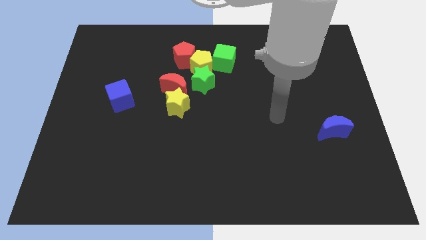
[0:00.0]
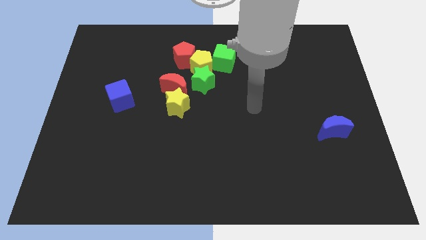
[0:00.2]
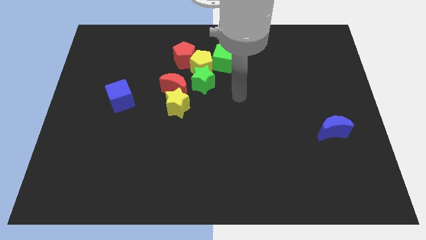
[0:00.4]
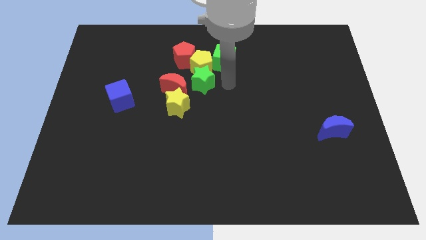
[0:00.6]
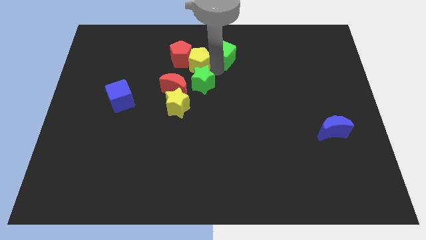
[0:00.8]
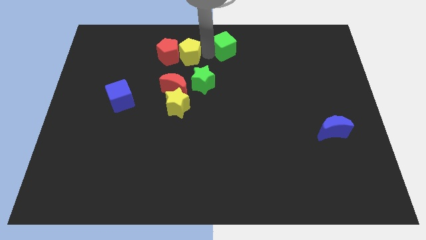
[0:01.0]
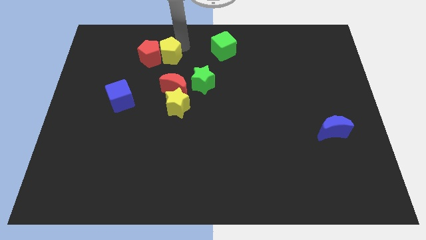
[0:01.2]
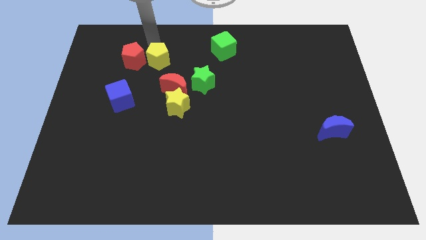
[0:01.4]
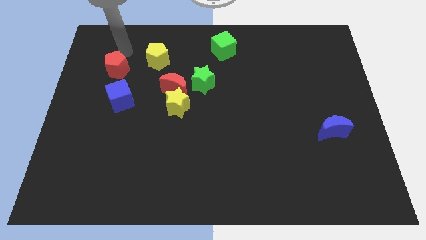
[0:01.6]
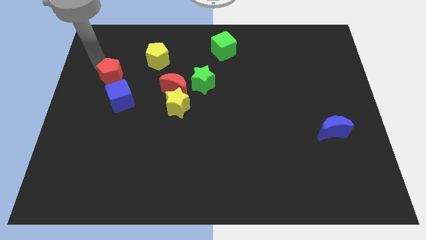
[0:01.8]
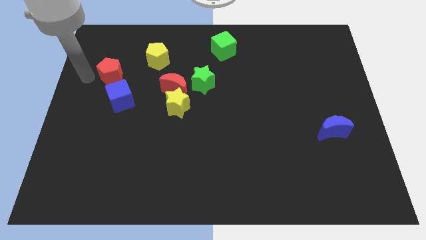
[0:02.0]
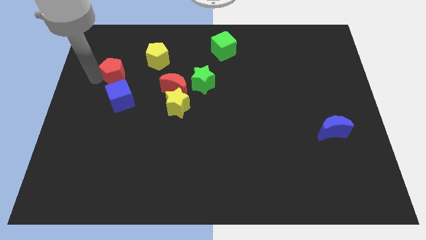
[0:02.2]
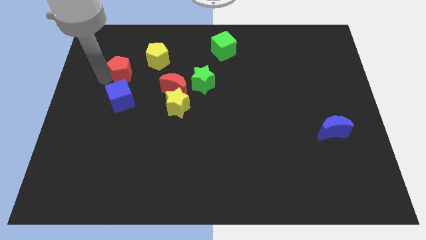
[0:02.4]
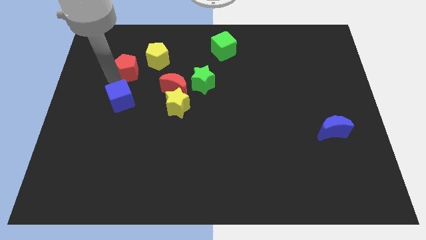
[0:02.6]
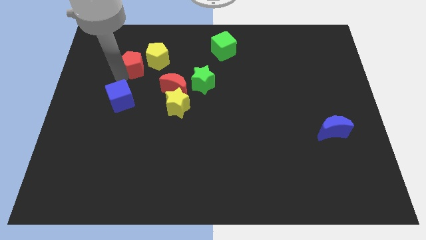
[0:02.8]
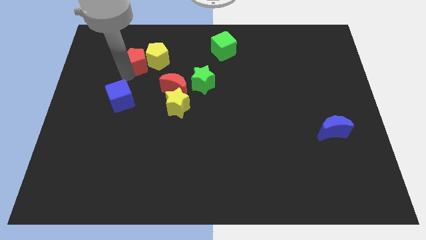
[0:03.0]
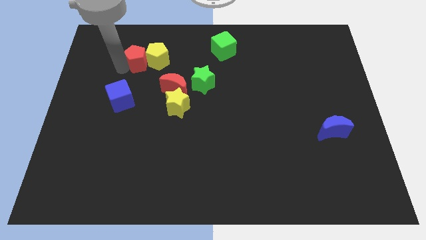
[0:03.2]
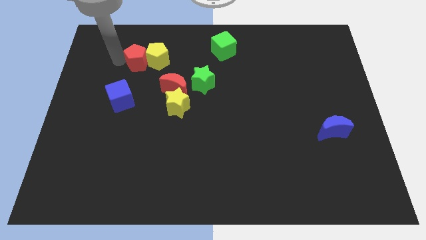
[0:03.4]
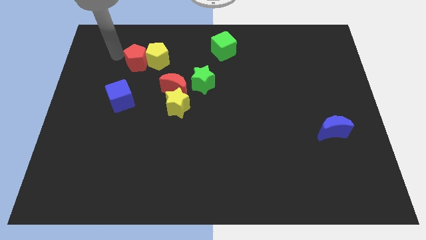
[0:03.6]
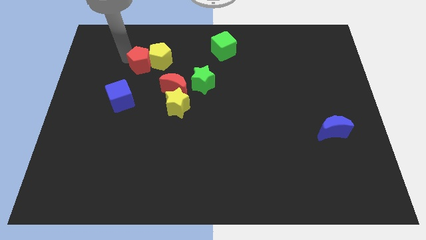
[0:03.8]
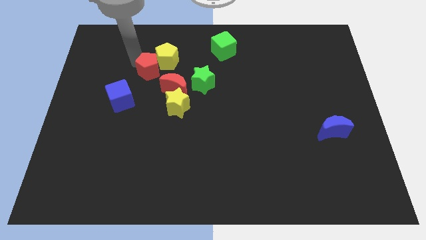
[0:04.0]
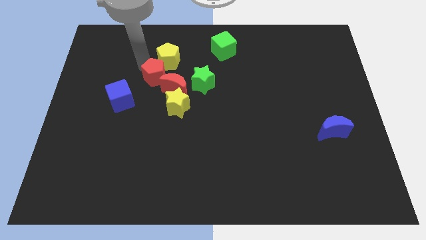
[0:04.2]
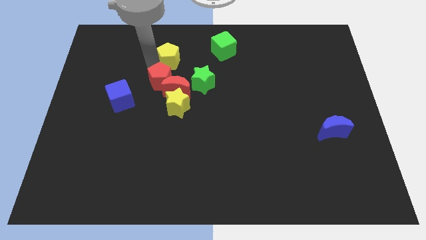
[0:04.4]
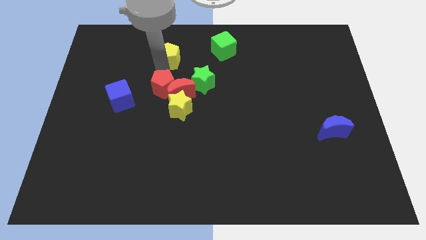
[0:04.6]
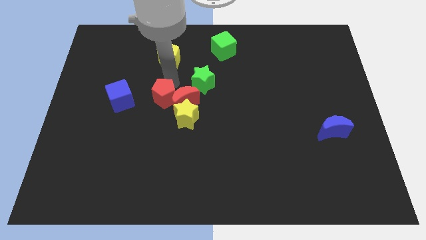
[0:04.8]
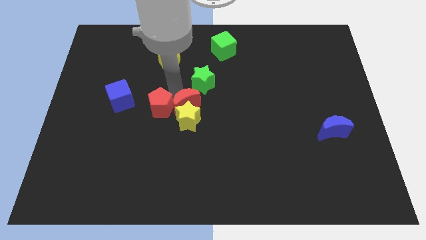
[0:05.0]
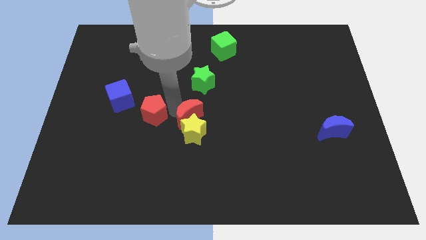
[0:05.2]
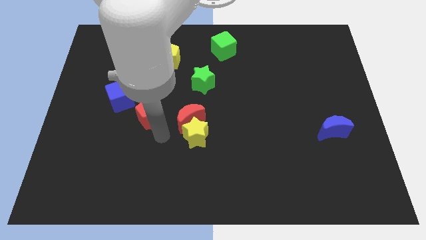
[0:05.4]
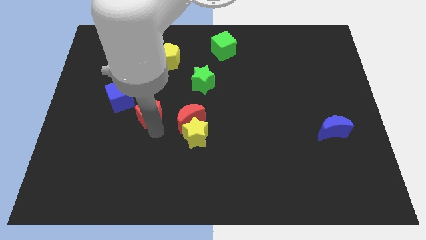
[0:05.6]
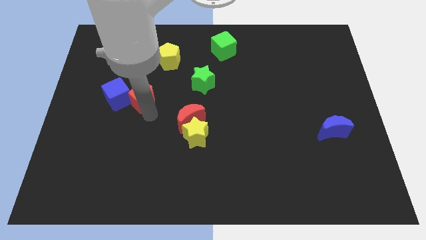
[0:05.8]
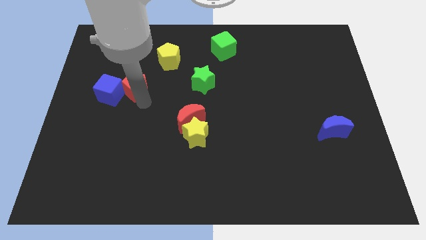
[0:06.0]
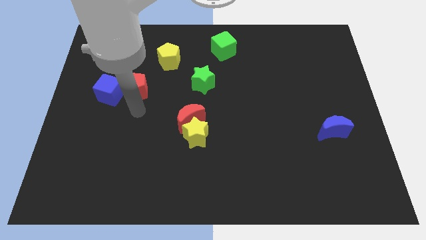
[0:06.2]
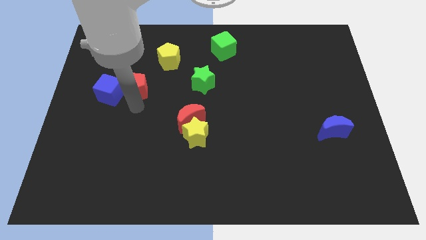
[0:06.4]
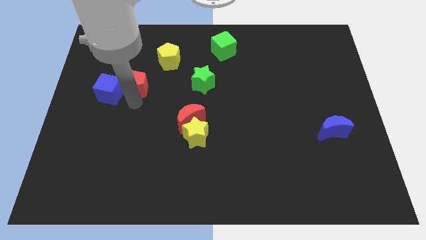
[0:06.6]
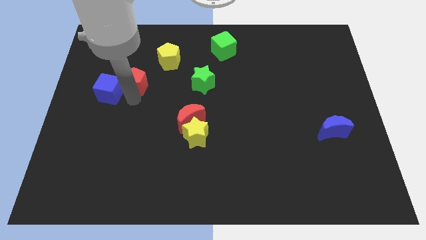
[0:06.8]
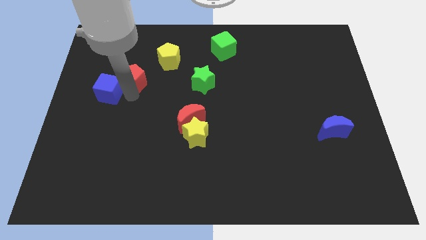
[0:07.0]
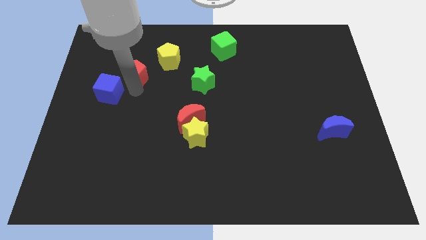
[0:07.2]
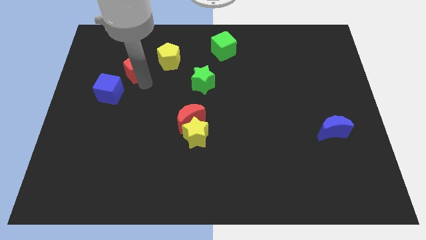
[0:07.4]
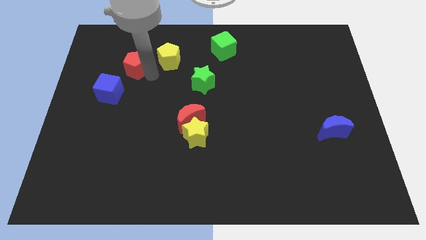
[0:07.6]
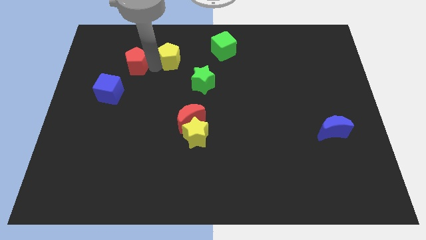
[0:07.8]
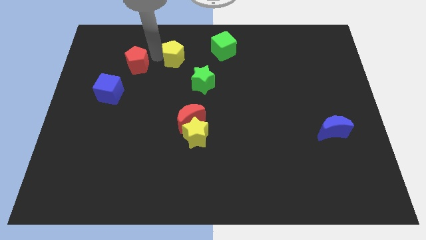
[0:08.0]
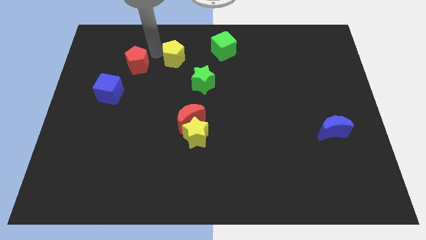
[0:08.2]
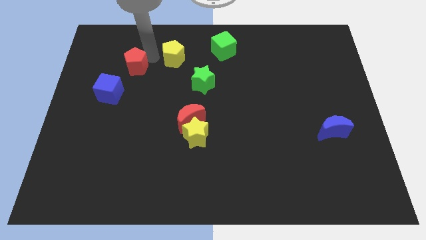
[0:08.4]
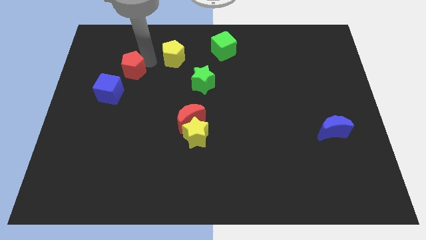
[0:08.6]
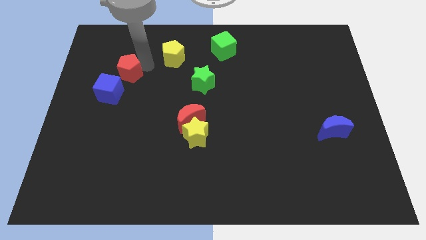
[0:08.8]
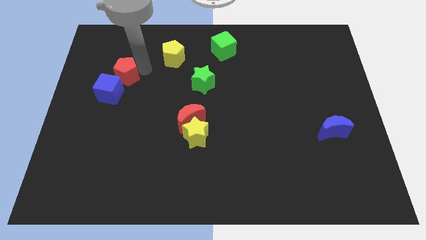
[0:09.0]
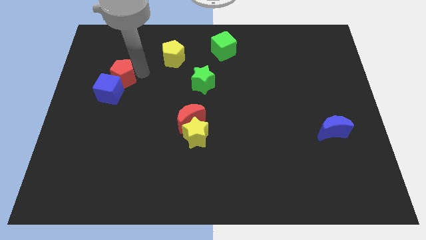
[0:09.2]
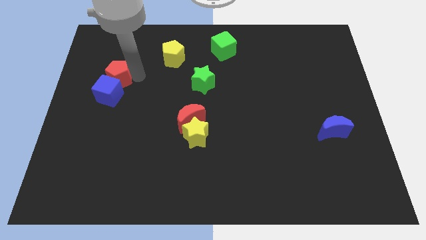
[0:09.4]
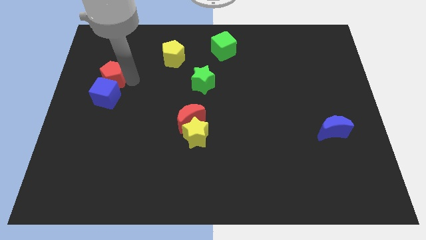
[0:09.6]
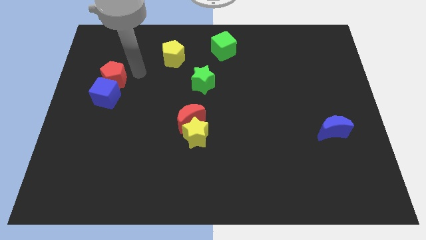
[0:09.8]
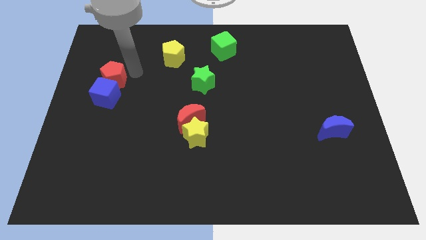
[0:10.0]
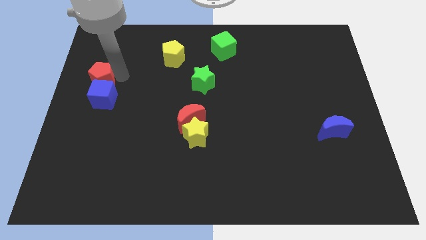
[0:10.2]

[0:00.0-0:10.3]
put the red pentagon to the left side of the board

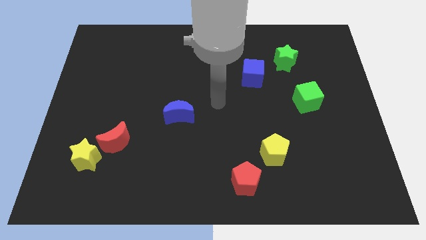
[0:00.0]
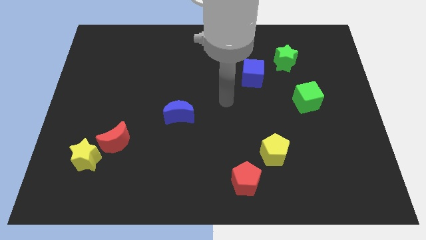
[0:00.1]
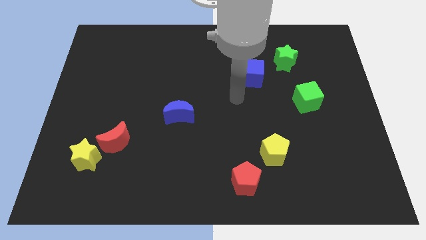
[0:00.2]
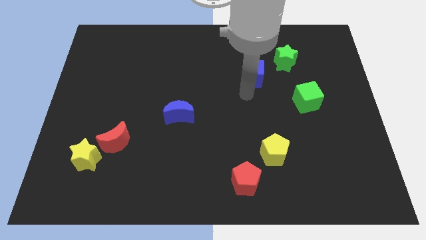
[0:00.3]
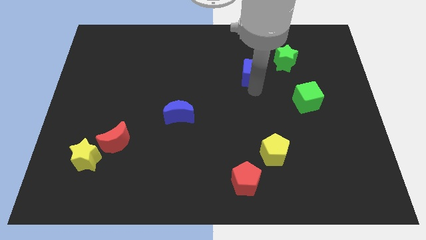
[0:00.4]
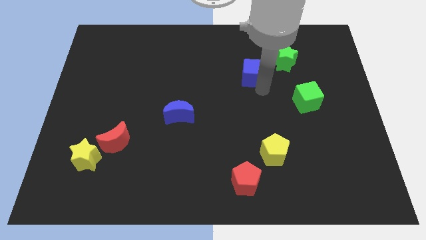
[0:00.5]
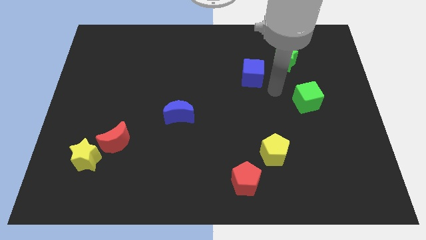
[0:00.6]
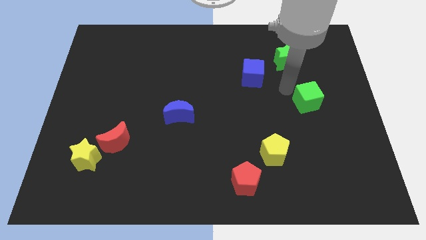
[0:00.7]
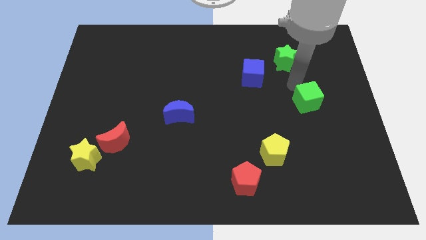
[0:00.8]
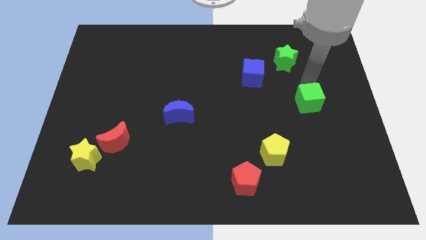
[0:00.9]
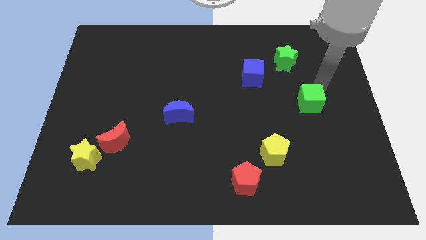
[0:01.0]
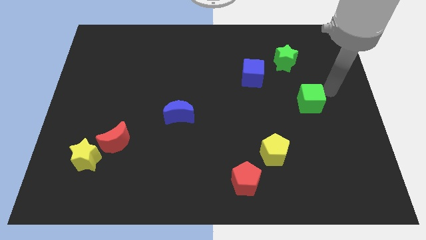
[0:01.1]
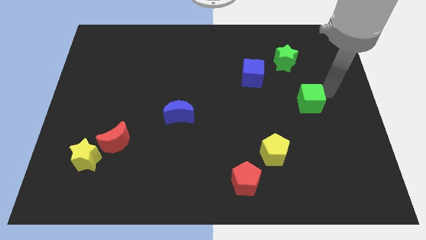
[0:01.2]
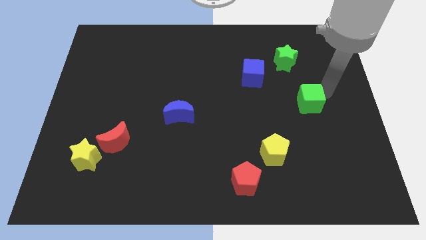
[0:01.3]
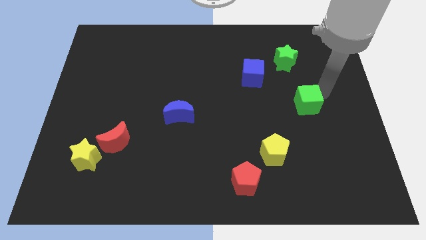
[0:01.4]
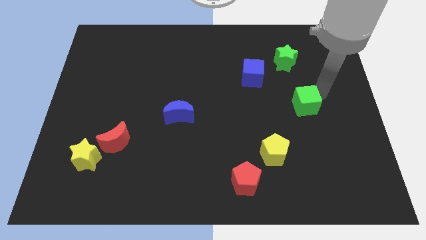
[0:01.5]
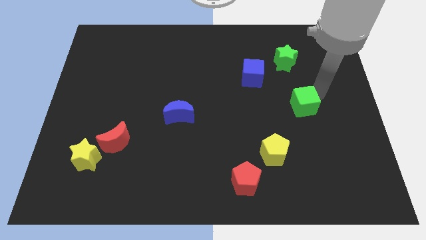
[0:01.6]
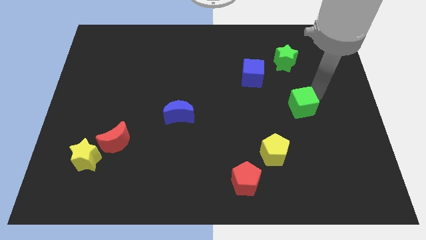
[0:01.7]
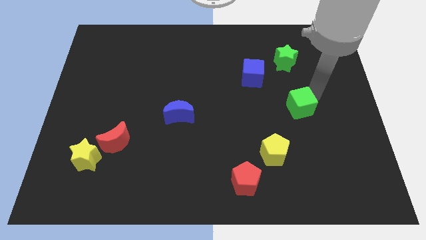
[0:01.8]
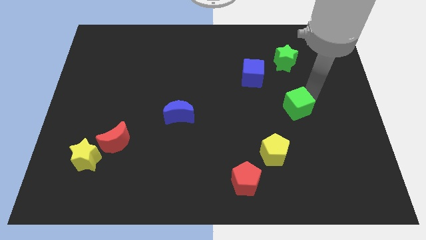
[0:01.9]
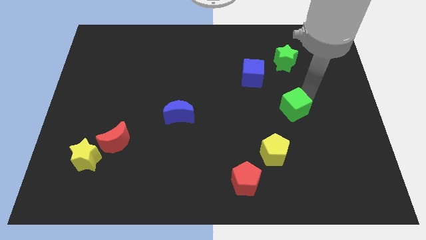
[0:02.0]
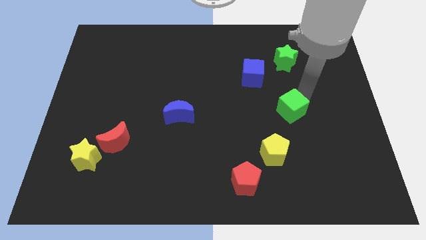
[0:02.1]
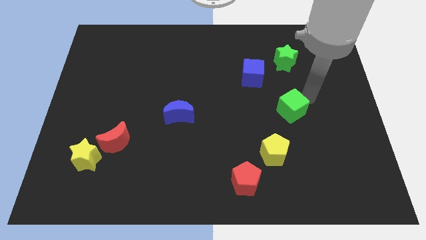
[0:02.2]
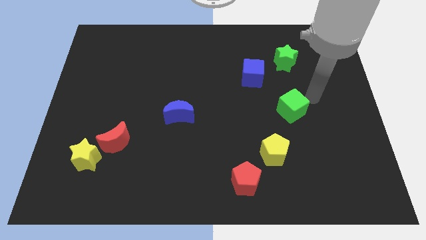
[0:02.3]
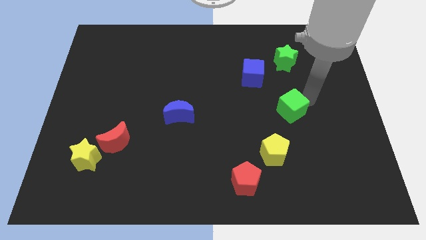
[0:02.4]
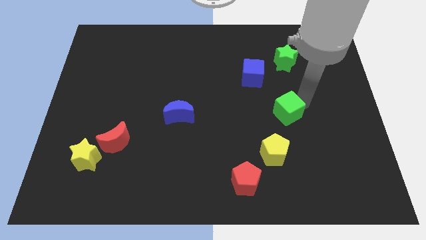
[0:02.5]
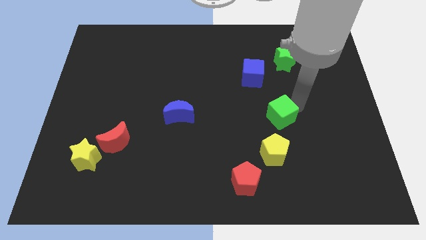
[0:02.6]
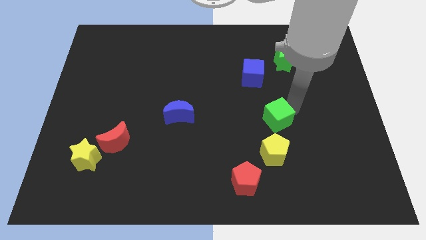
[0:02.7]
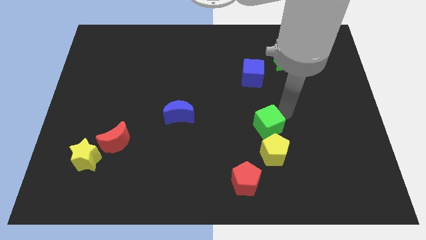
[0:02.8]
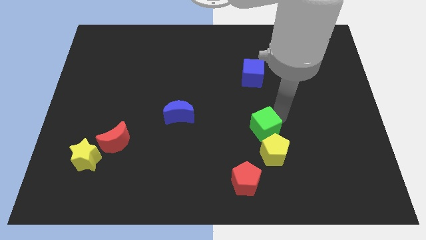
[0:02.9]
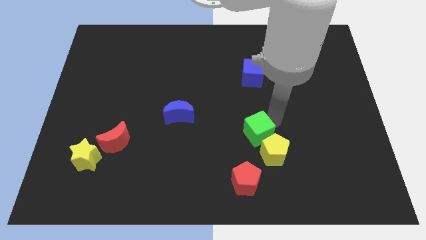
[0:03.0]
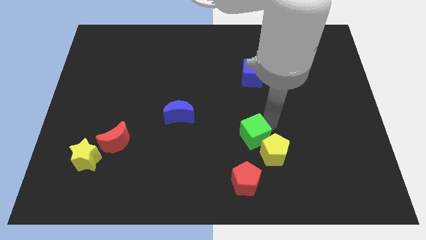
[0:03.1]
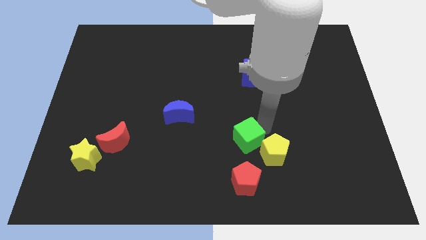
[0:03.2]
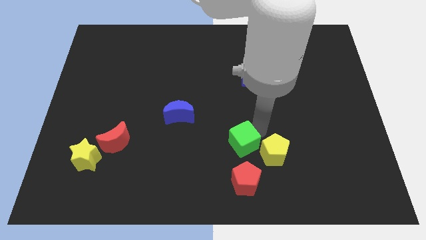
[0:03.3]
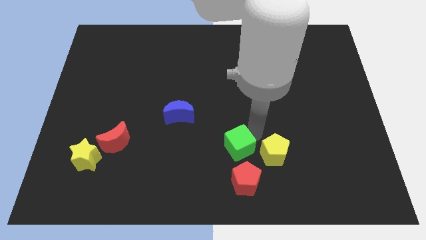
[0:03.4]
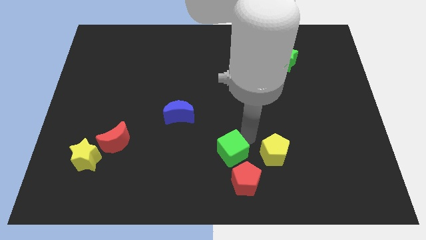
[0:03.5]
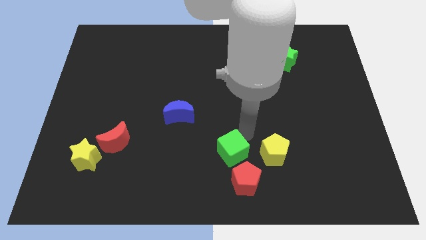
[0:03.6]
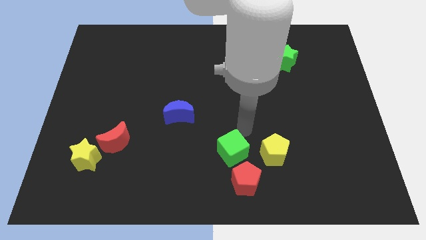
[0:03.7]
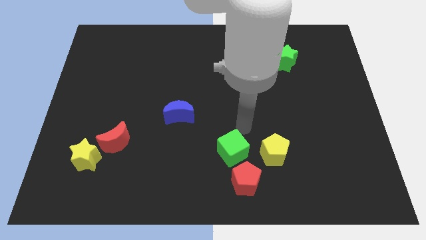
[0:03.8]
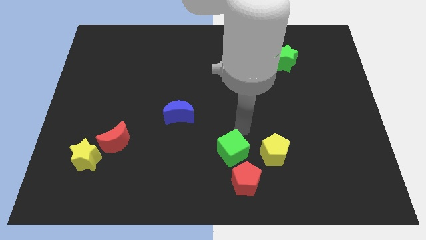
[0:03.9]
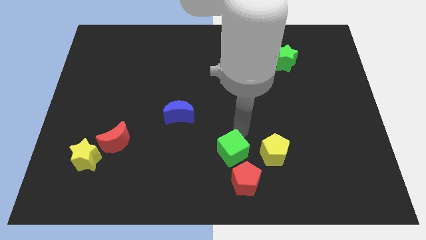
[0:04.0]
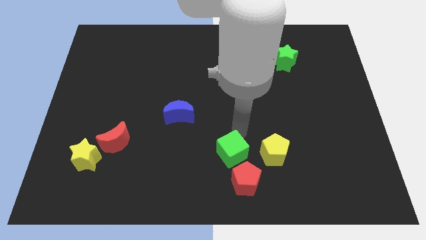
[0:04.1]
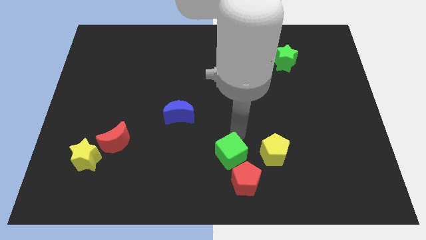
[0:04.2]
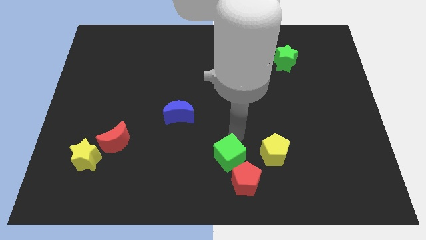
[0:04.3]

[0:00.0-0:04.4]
put the green cube to the bottom side
